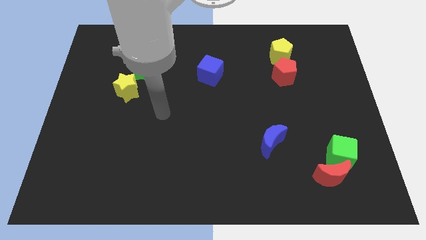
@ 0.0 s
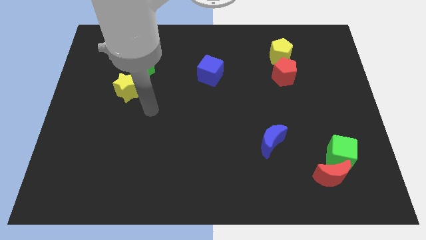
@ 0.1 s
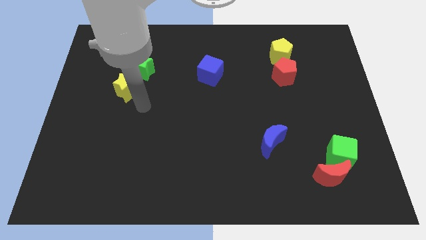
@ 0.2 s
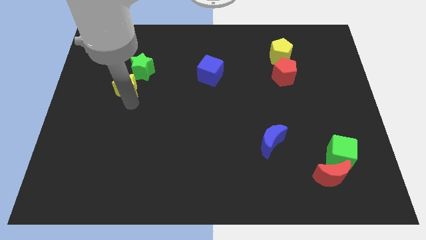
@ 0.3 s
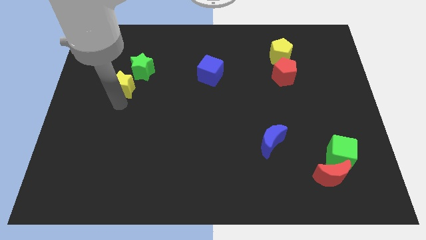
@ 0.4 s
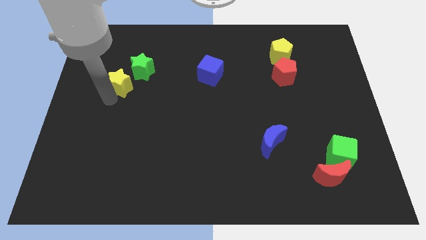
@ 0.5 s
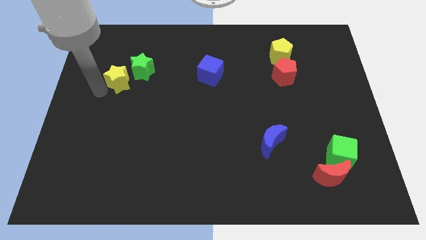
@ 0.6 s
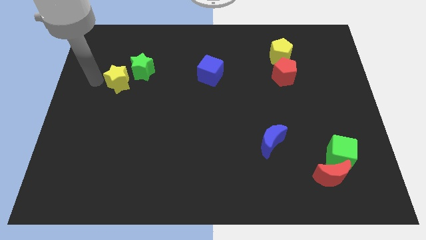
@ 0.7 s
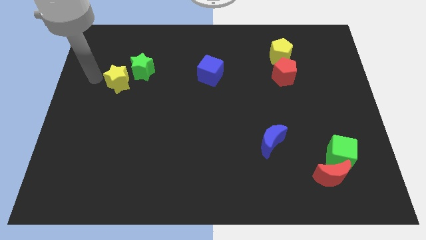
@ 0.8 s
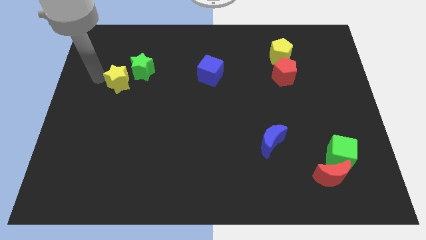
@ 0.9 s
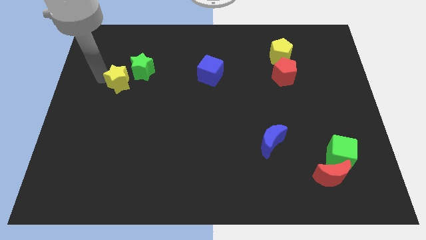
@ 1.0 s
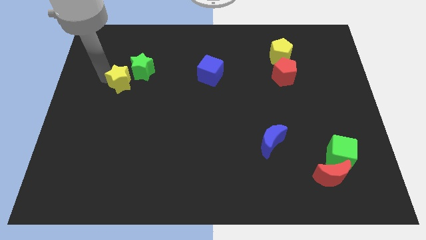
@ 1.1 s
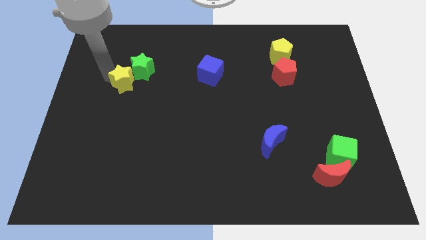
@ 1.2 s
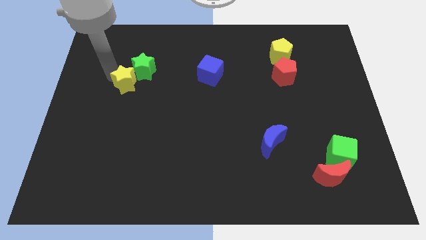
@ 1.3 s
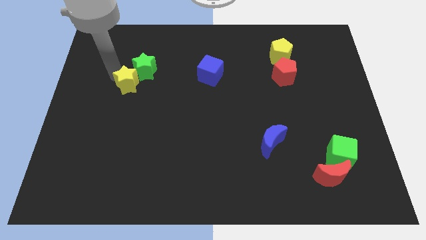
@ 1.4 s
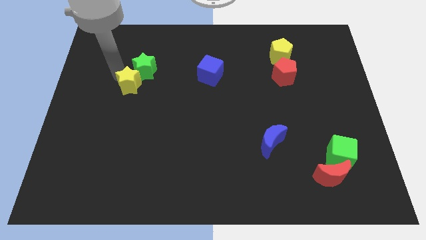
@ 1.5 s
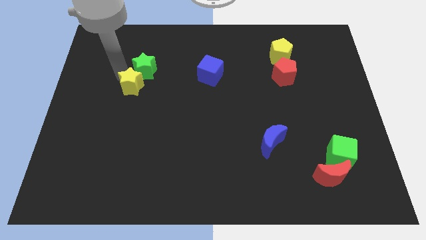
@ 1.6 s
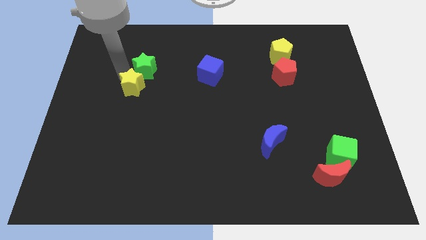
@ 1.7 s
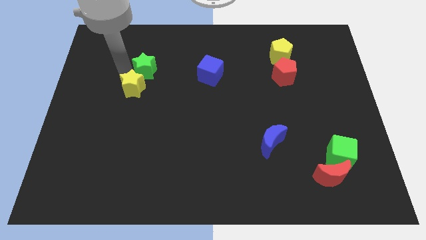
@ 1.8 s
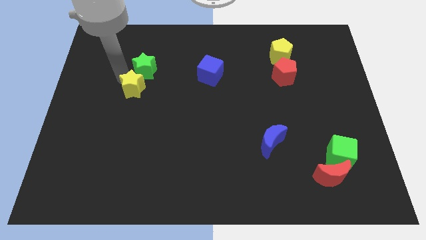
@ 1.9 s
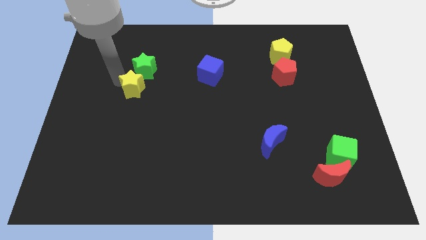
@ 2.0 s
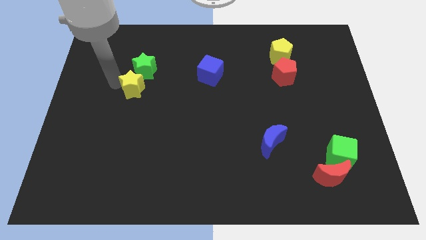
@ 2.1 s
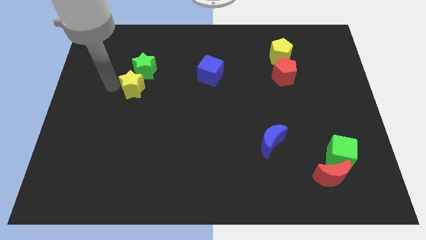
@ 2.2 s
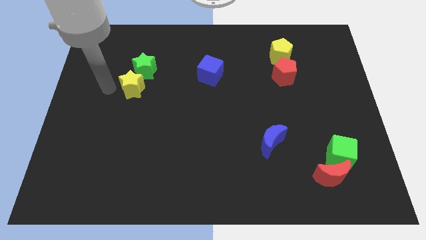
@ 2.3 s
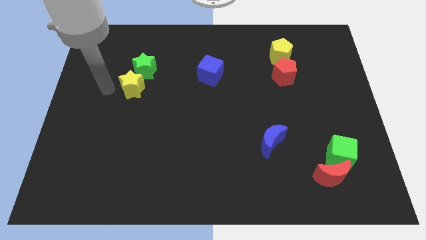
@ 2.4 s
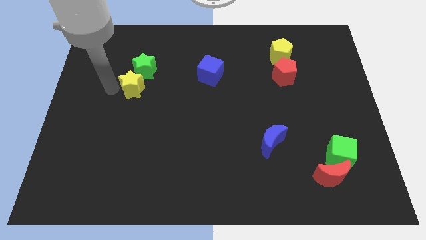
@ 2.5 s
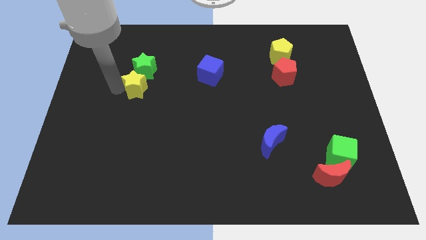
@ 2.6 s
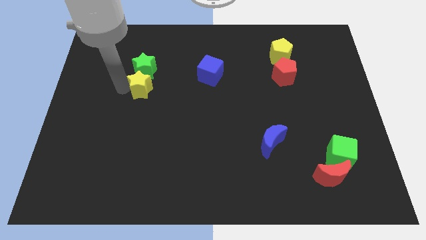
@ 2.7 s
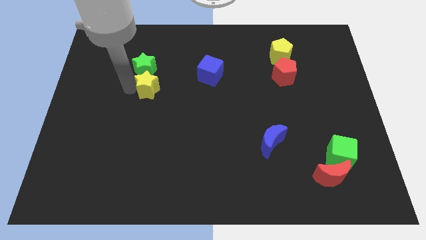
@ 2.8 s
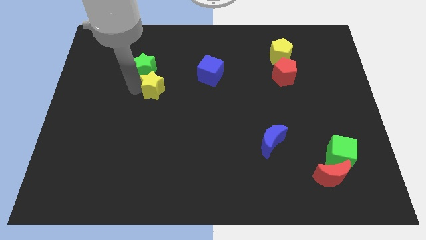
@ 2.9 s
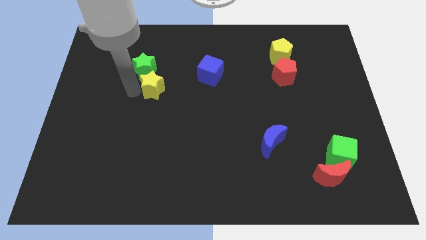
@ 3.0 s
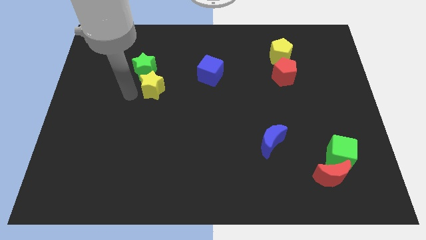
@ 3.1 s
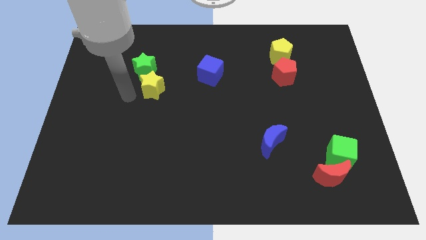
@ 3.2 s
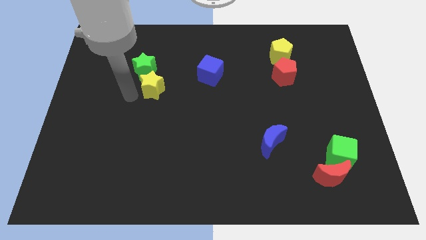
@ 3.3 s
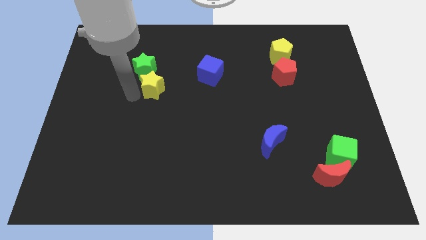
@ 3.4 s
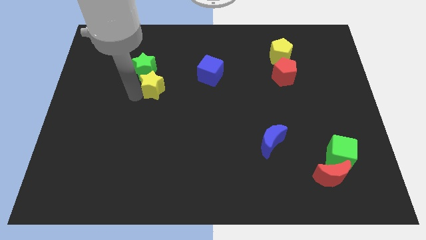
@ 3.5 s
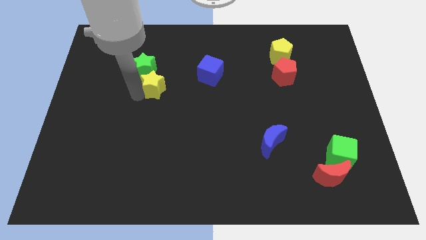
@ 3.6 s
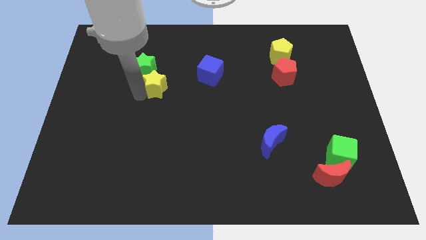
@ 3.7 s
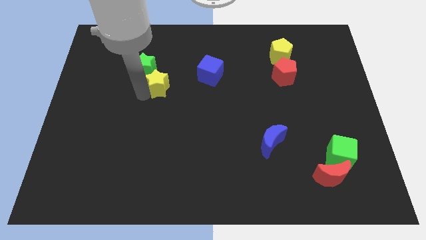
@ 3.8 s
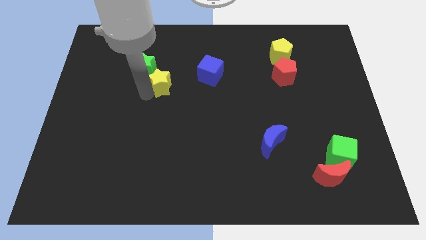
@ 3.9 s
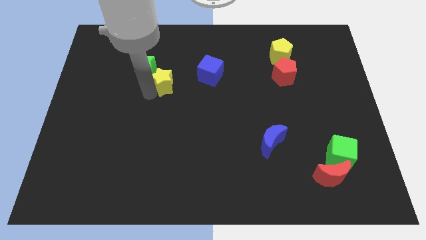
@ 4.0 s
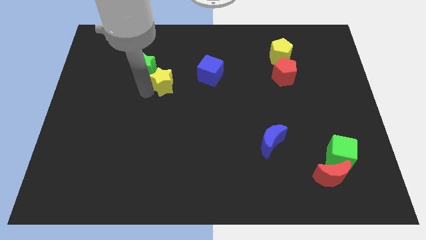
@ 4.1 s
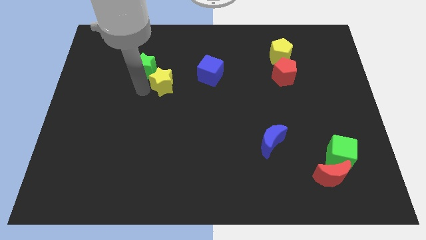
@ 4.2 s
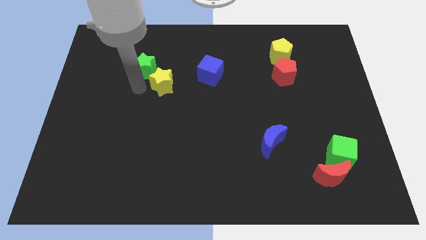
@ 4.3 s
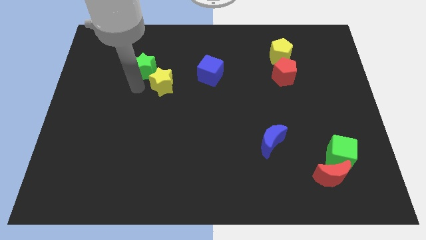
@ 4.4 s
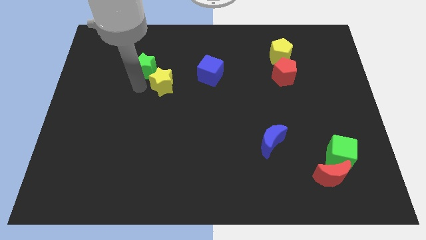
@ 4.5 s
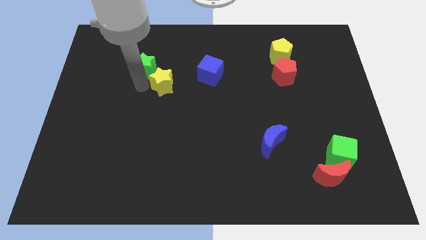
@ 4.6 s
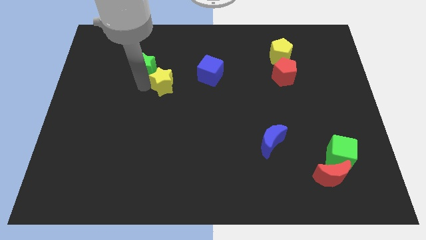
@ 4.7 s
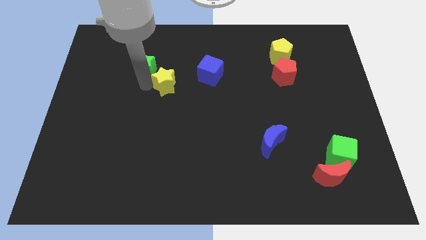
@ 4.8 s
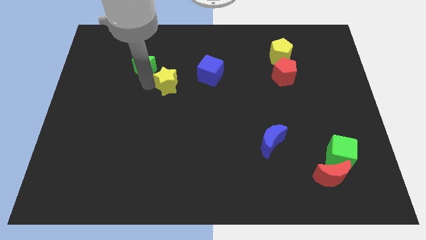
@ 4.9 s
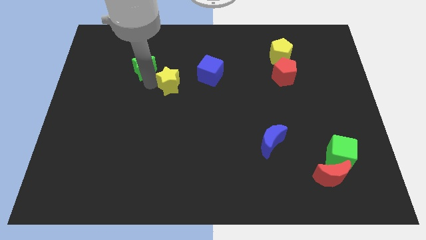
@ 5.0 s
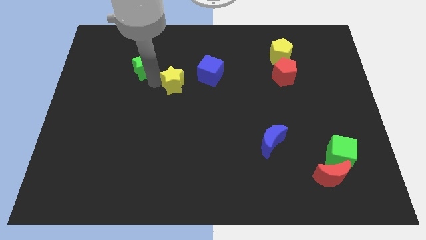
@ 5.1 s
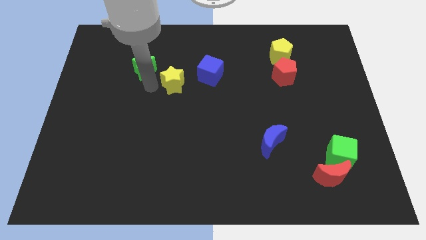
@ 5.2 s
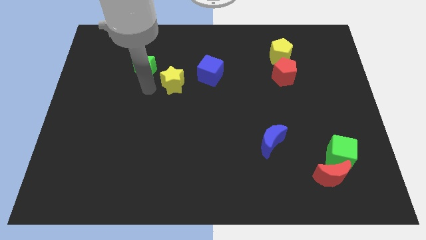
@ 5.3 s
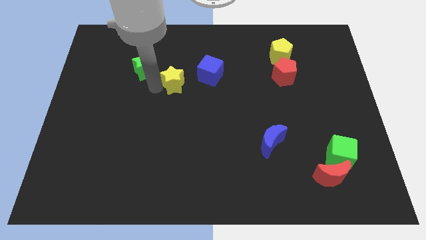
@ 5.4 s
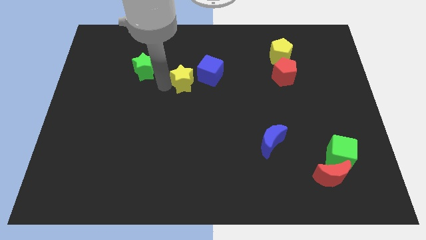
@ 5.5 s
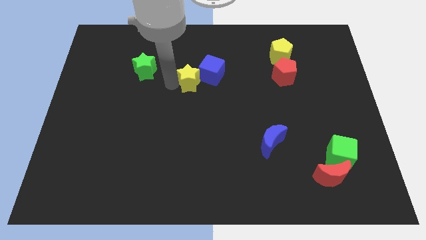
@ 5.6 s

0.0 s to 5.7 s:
slide the yellow star towards the blue cube

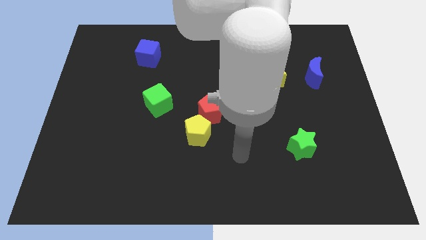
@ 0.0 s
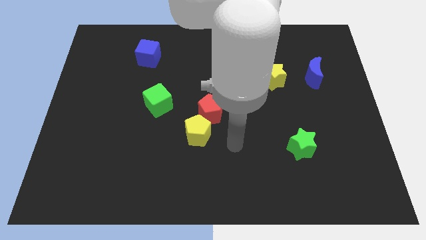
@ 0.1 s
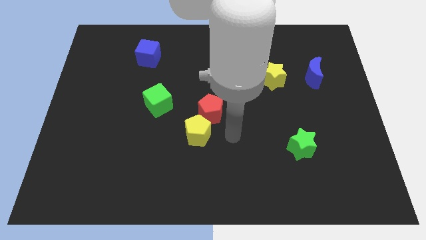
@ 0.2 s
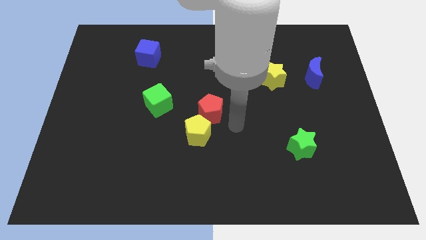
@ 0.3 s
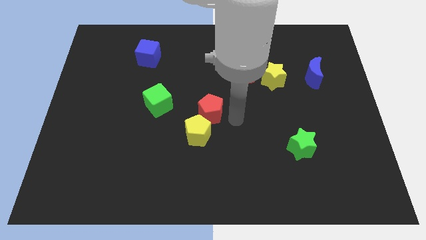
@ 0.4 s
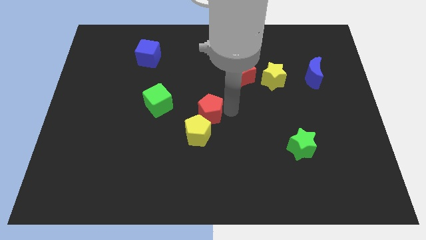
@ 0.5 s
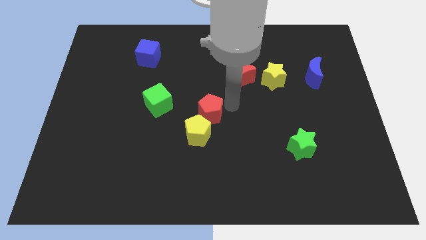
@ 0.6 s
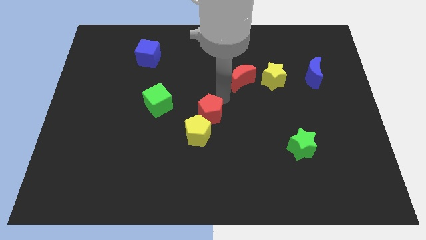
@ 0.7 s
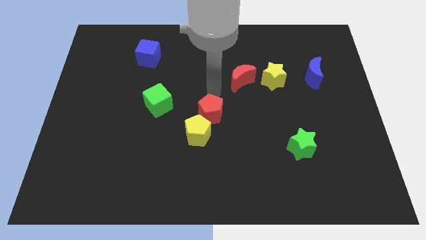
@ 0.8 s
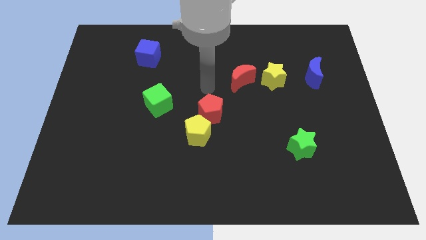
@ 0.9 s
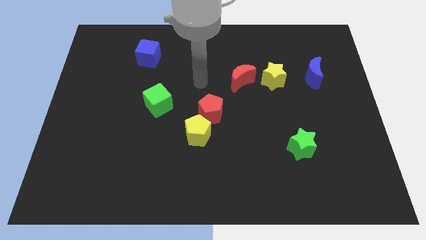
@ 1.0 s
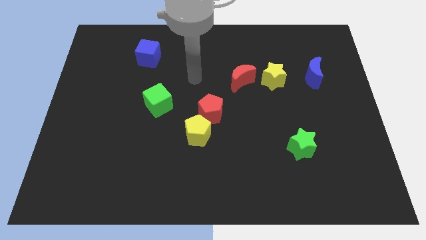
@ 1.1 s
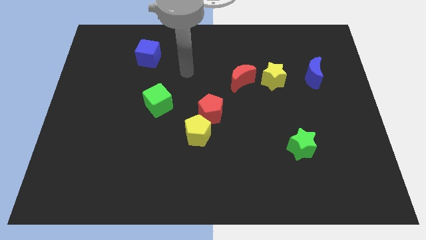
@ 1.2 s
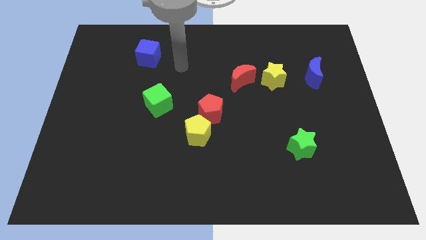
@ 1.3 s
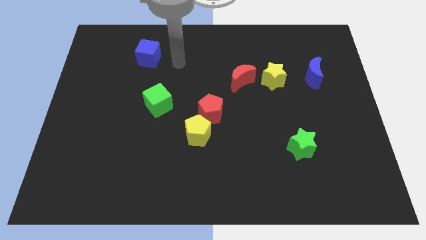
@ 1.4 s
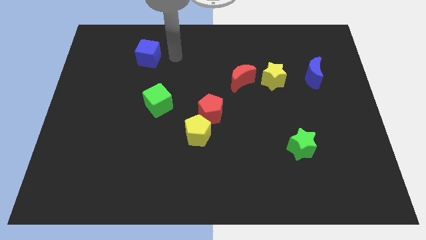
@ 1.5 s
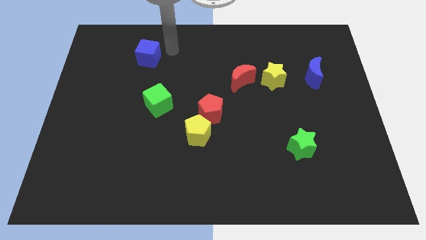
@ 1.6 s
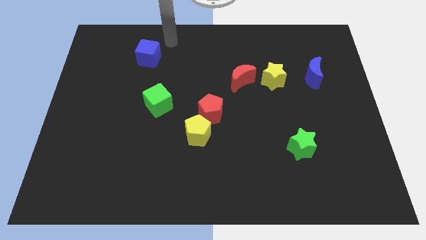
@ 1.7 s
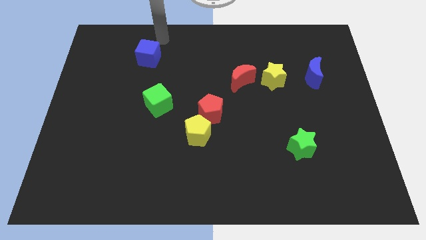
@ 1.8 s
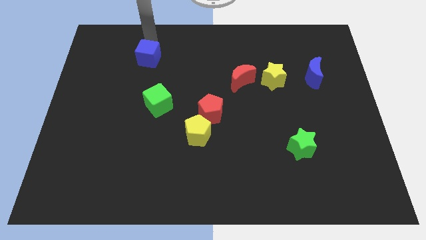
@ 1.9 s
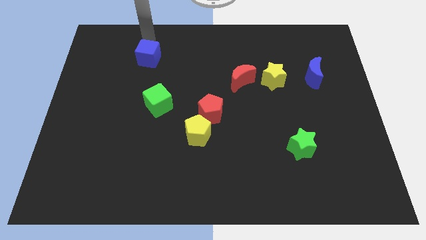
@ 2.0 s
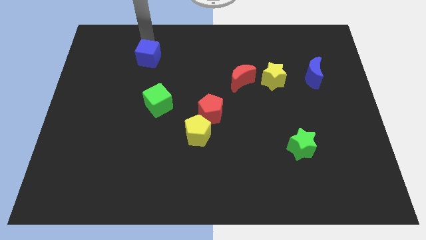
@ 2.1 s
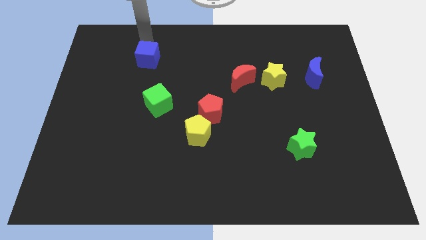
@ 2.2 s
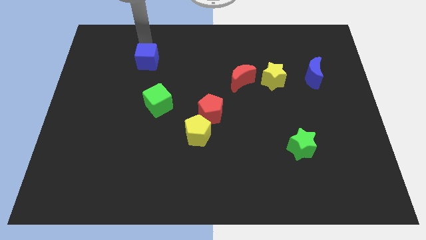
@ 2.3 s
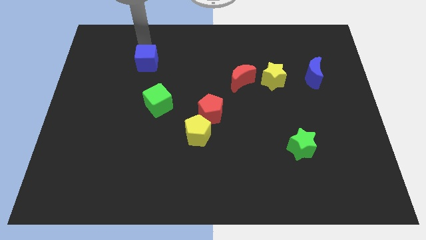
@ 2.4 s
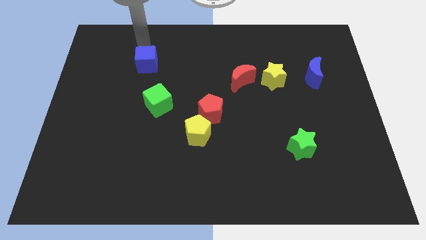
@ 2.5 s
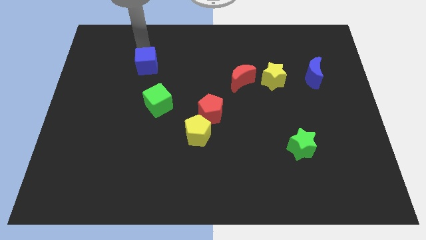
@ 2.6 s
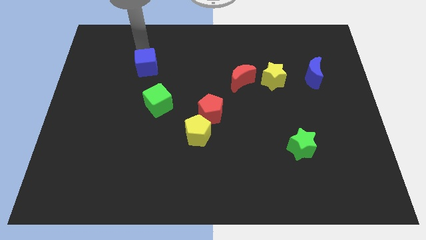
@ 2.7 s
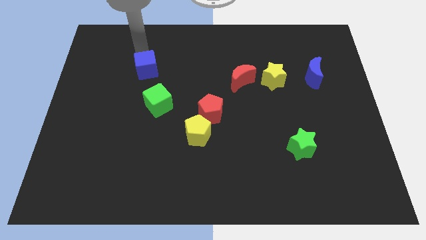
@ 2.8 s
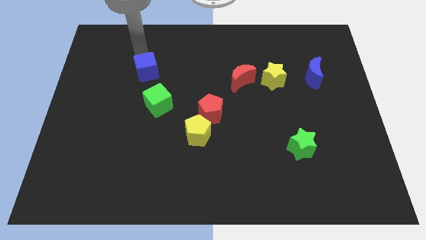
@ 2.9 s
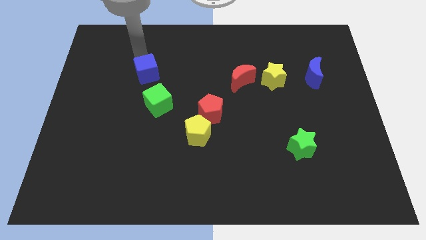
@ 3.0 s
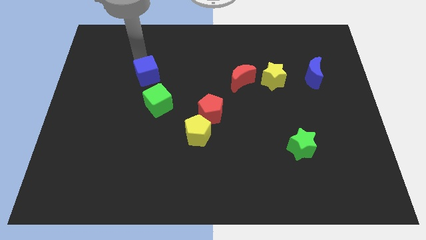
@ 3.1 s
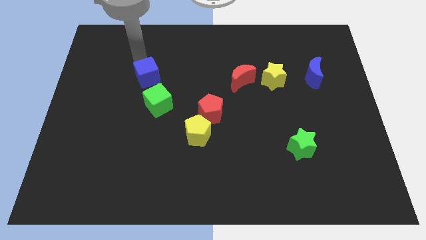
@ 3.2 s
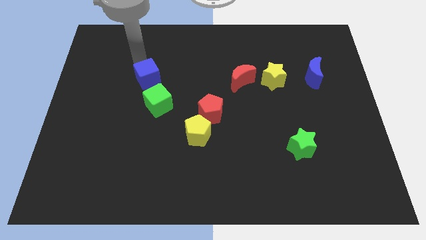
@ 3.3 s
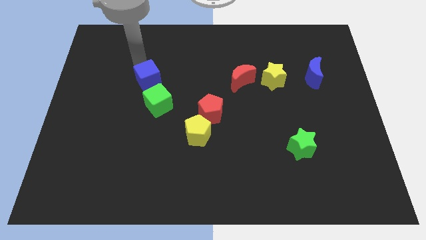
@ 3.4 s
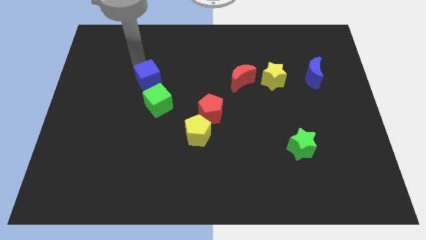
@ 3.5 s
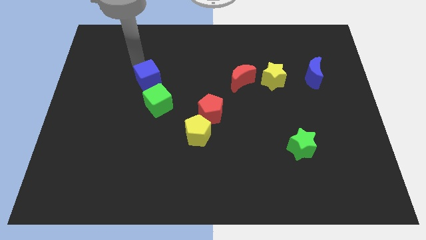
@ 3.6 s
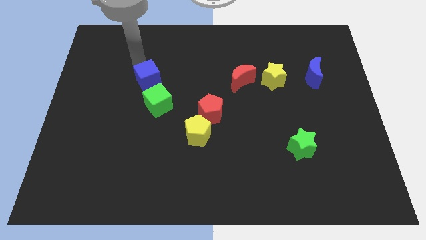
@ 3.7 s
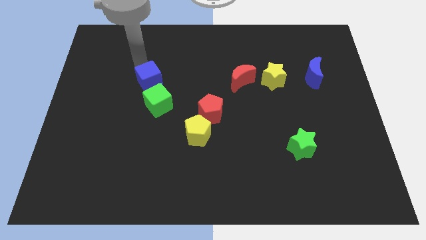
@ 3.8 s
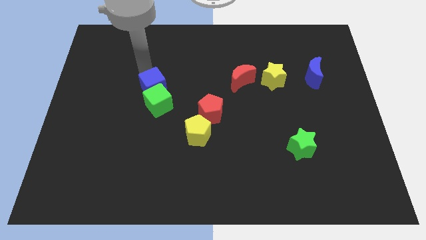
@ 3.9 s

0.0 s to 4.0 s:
move the blue cube towards the green cube
